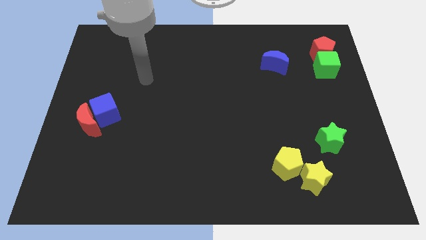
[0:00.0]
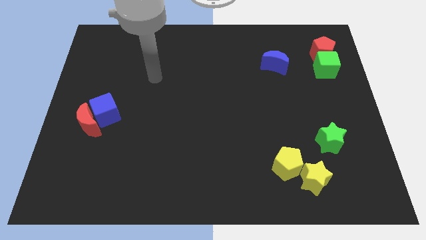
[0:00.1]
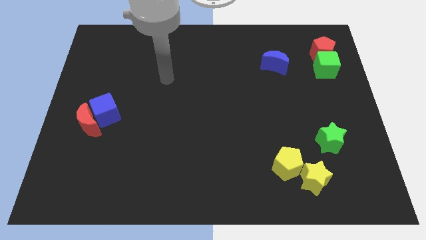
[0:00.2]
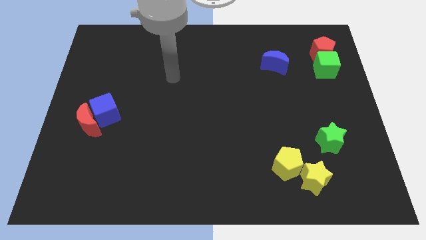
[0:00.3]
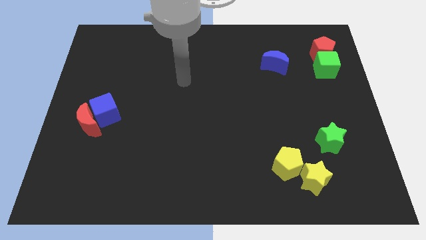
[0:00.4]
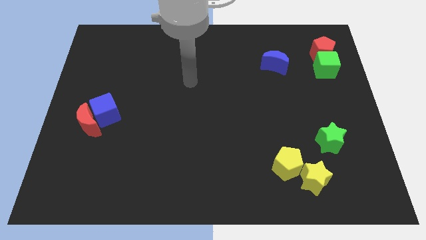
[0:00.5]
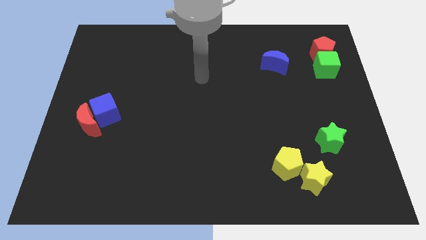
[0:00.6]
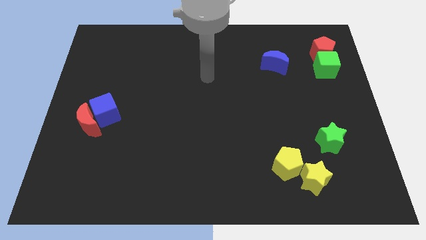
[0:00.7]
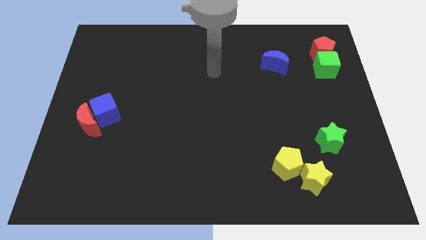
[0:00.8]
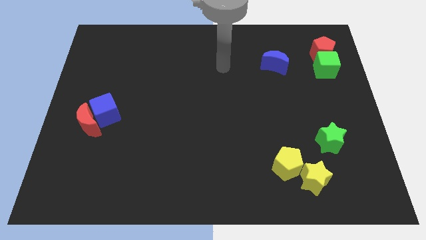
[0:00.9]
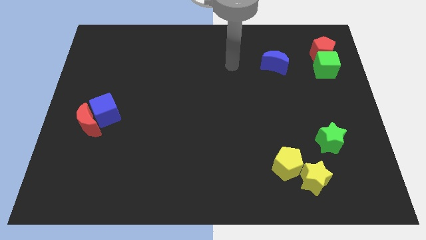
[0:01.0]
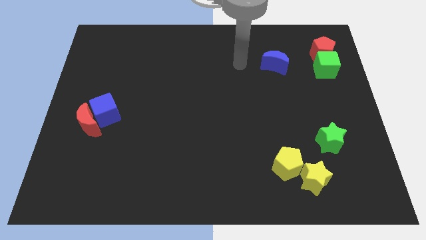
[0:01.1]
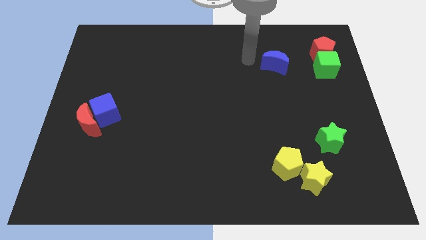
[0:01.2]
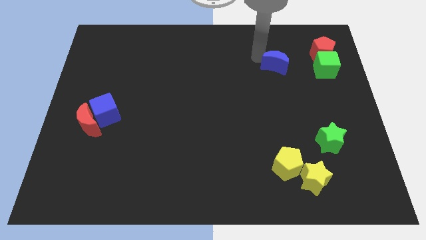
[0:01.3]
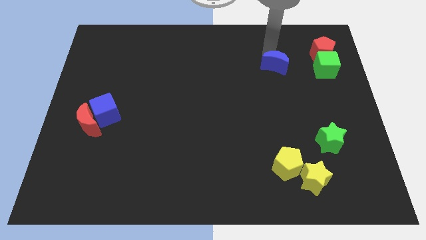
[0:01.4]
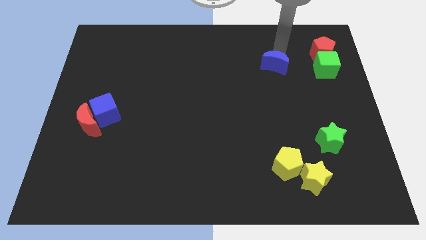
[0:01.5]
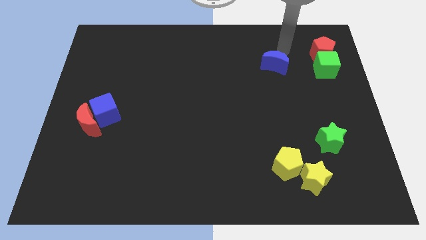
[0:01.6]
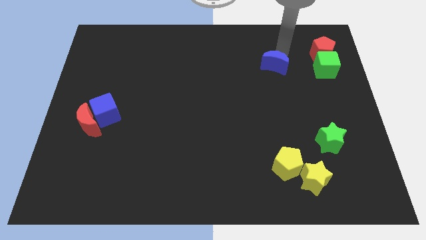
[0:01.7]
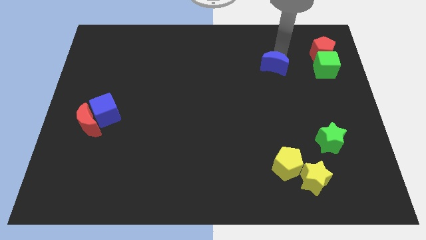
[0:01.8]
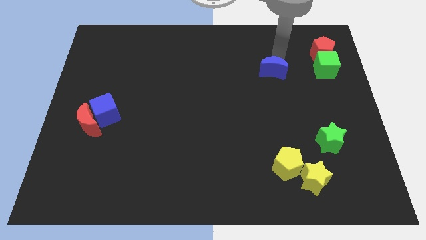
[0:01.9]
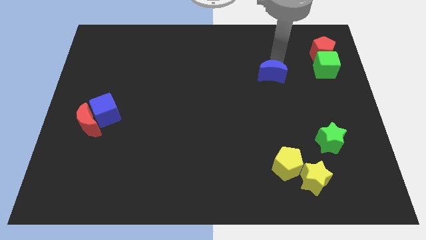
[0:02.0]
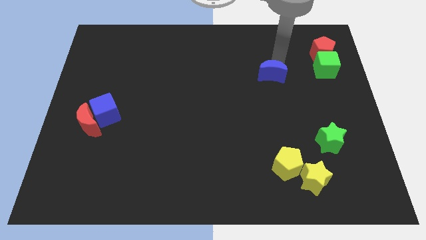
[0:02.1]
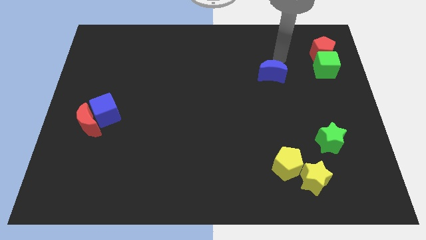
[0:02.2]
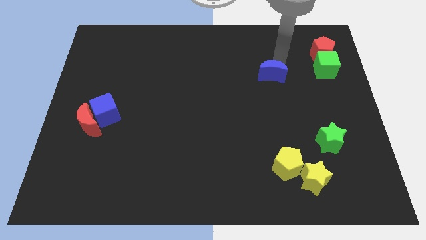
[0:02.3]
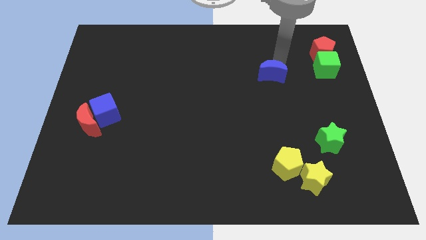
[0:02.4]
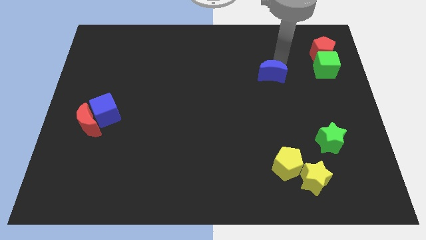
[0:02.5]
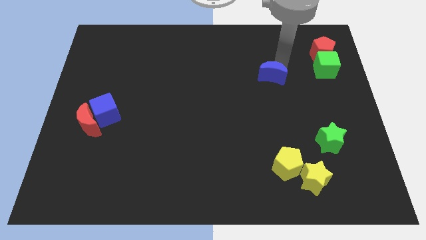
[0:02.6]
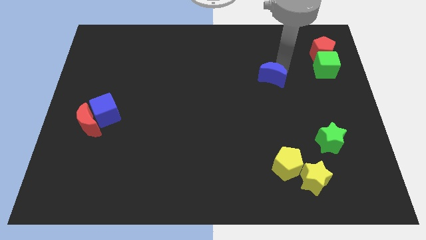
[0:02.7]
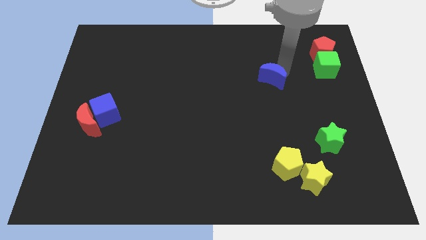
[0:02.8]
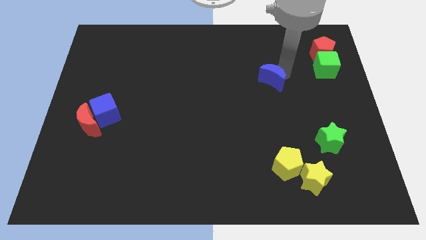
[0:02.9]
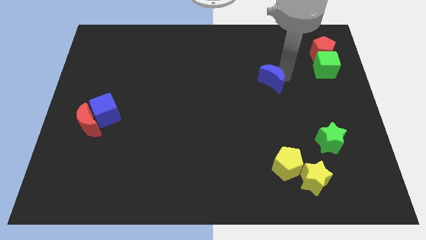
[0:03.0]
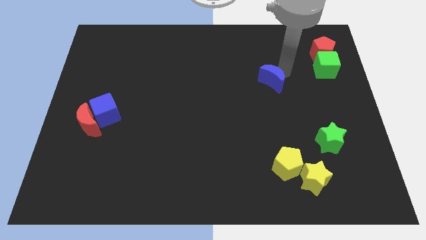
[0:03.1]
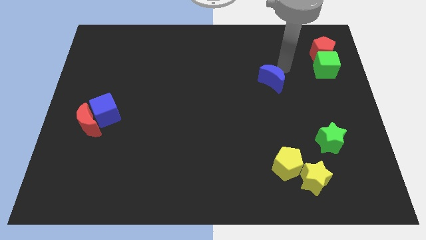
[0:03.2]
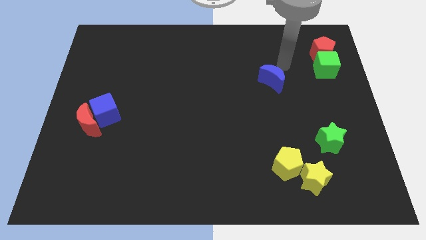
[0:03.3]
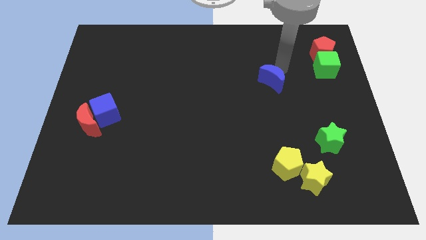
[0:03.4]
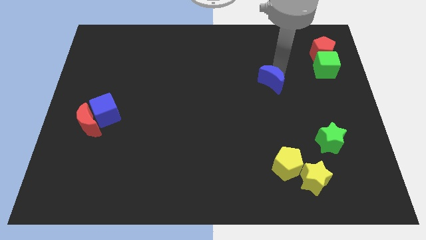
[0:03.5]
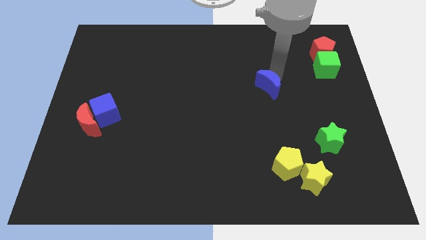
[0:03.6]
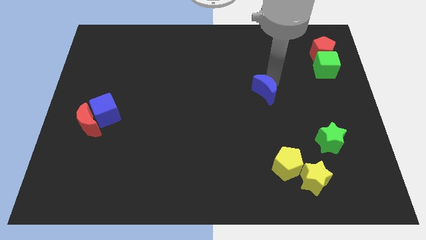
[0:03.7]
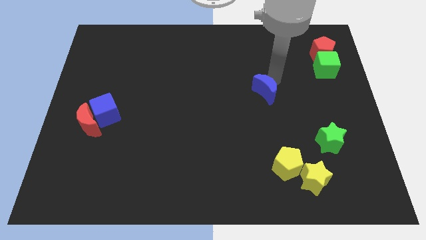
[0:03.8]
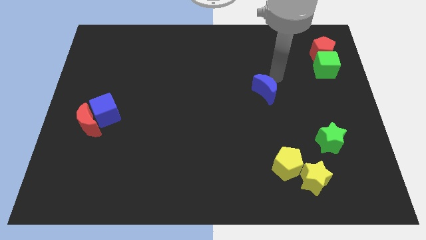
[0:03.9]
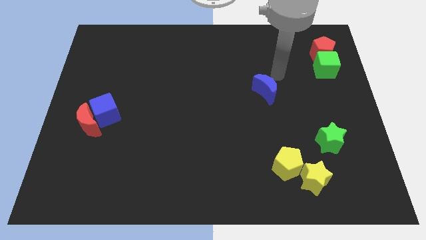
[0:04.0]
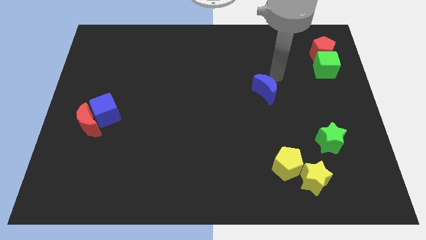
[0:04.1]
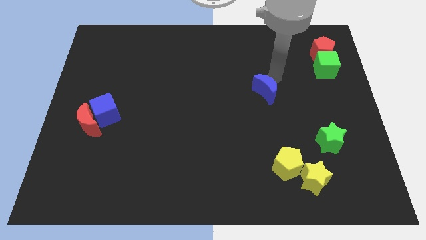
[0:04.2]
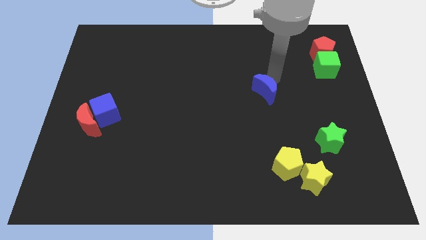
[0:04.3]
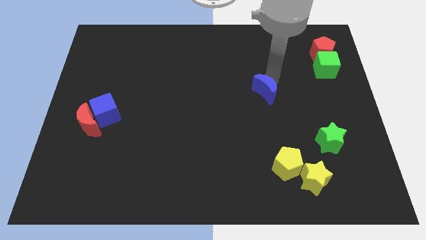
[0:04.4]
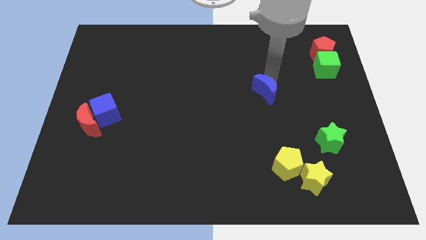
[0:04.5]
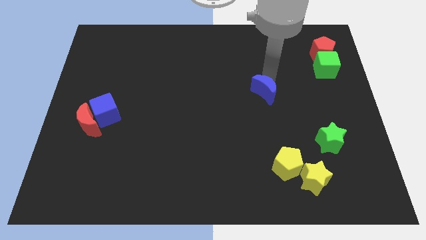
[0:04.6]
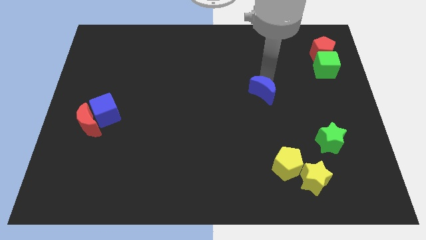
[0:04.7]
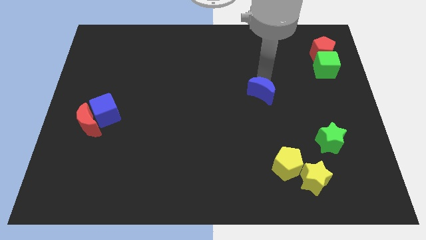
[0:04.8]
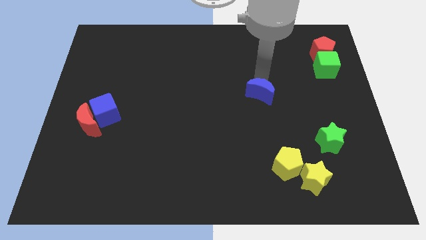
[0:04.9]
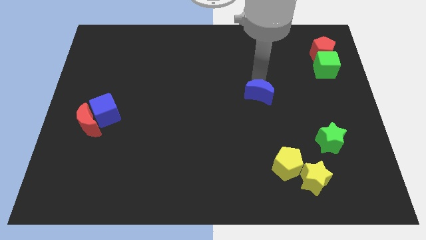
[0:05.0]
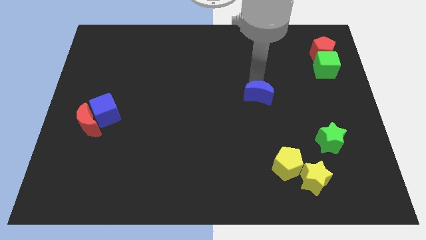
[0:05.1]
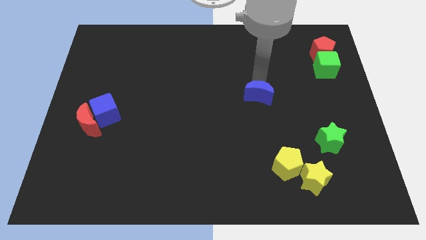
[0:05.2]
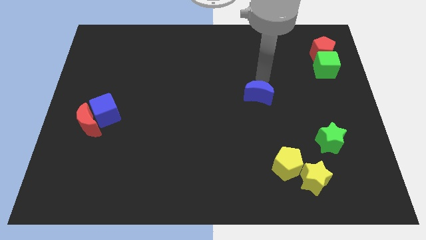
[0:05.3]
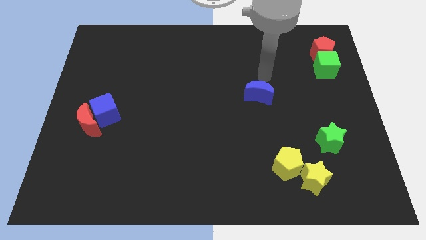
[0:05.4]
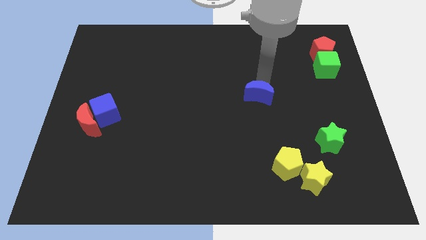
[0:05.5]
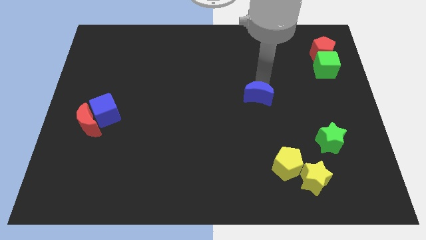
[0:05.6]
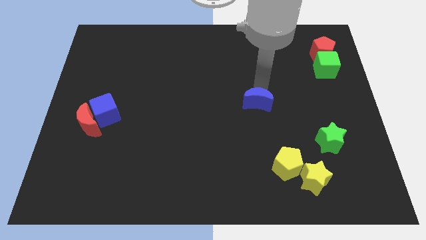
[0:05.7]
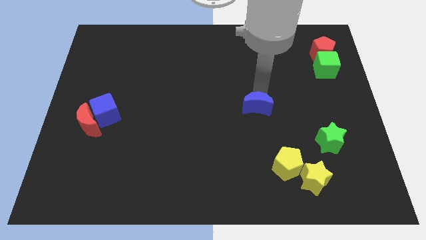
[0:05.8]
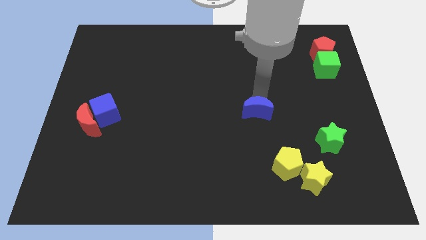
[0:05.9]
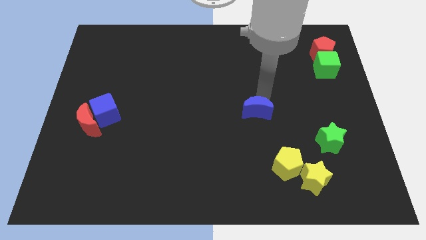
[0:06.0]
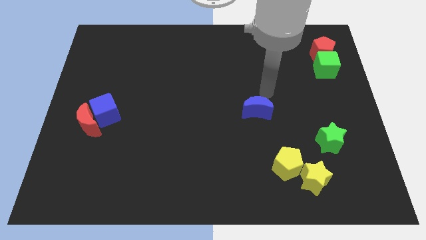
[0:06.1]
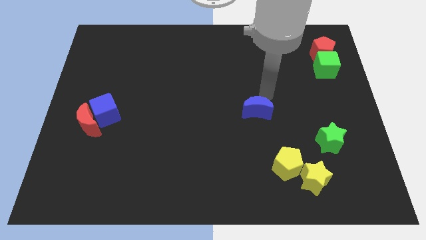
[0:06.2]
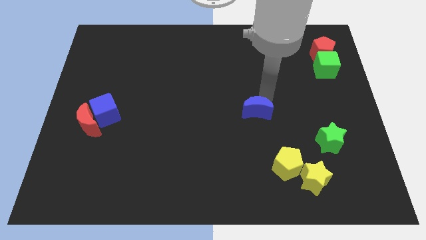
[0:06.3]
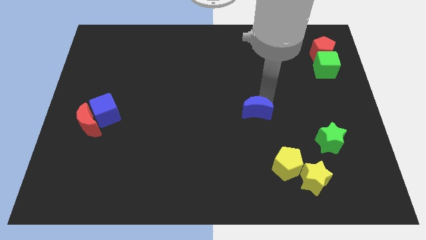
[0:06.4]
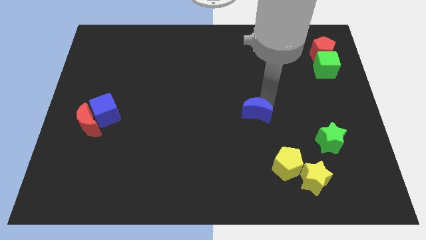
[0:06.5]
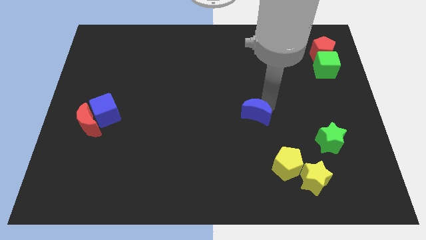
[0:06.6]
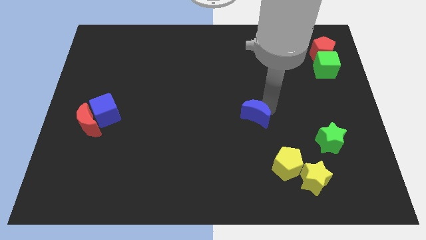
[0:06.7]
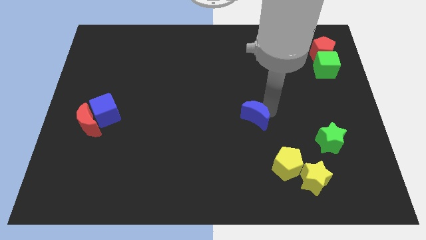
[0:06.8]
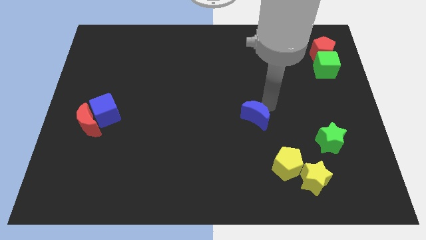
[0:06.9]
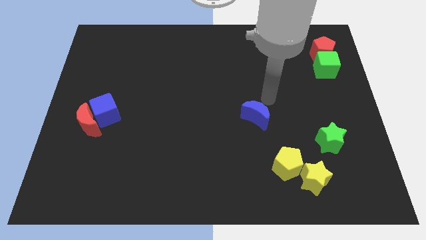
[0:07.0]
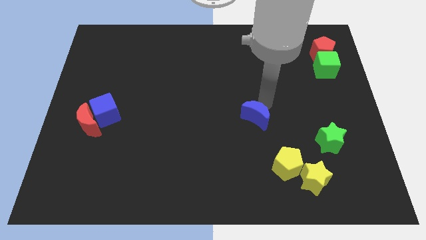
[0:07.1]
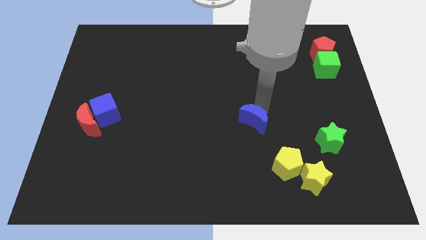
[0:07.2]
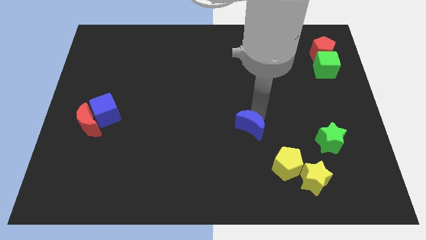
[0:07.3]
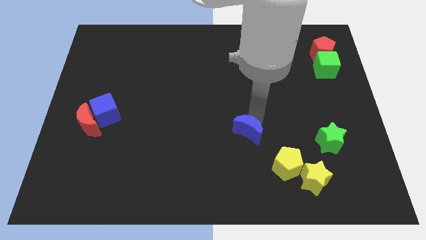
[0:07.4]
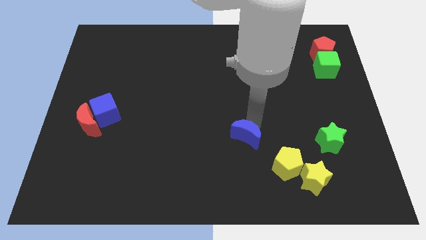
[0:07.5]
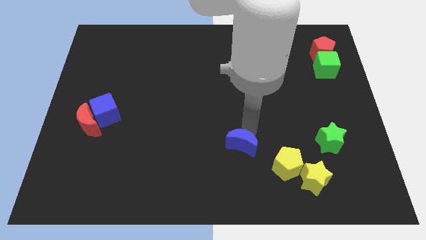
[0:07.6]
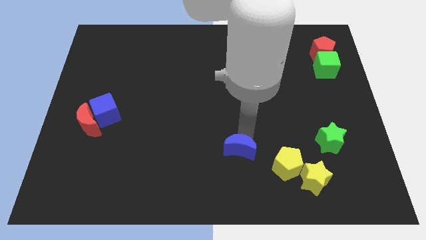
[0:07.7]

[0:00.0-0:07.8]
push the blue moon to the left side of the yellow pentagon
